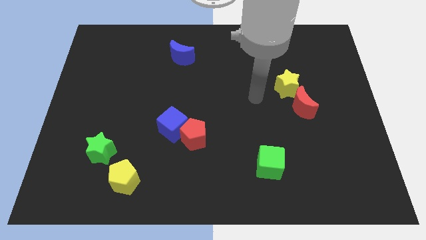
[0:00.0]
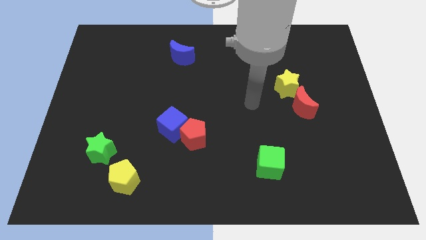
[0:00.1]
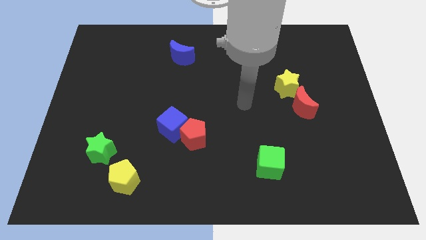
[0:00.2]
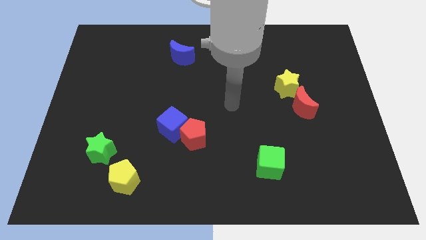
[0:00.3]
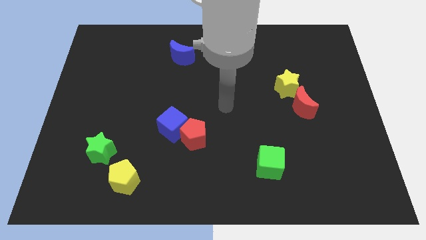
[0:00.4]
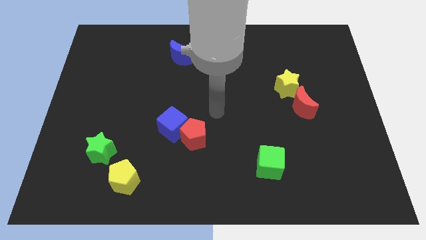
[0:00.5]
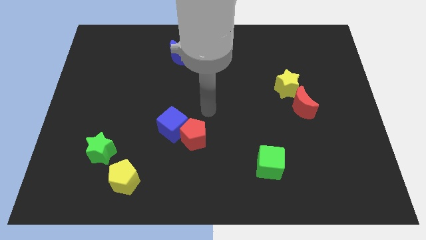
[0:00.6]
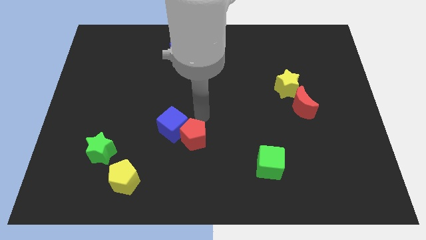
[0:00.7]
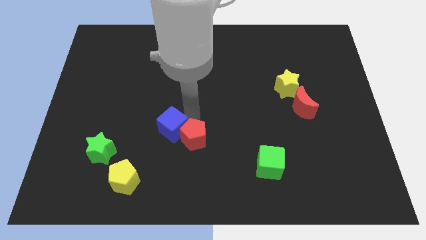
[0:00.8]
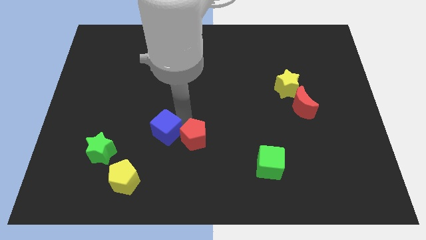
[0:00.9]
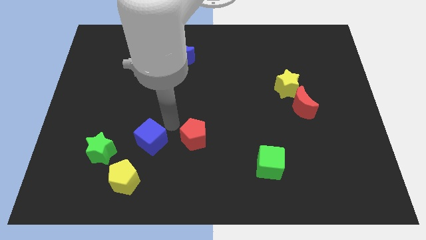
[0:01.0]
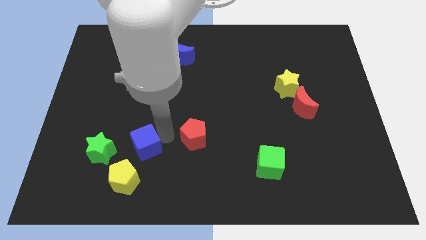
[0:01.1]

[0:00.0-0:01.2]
move the red pentagon away from the blue cube

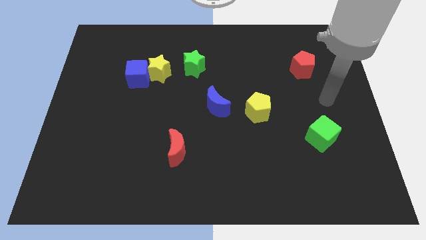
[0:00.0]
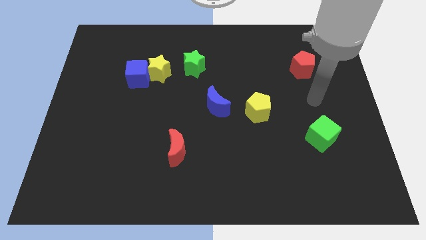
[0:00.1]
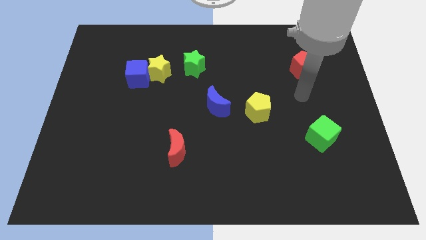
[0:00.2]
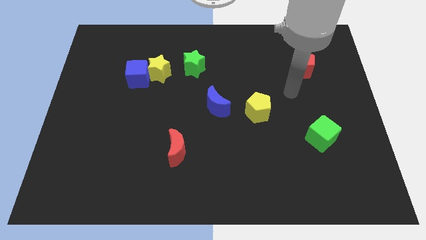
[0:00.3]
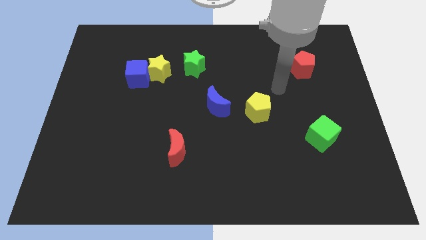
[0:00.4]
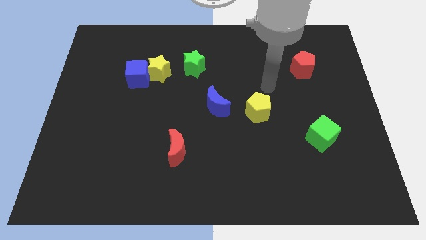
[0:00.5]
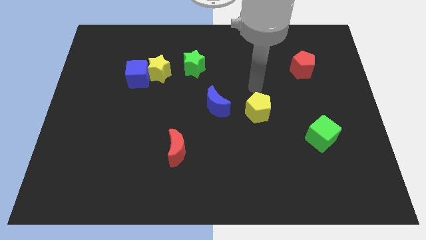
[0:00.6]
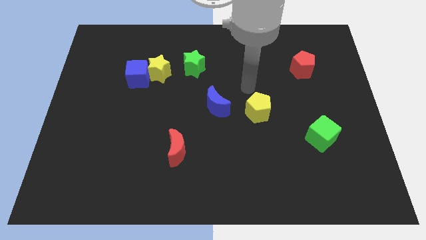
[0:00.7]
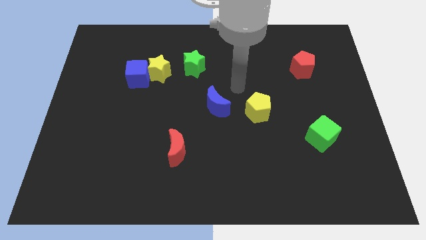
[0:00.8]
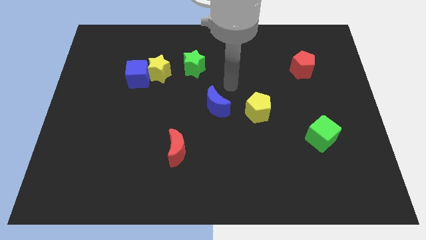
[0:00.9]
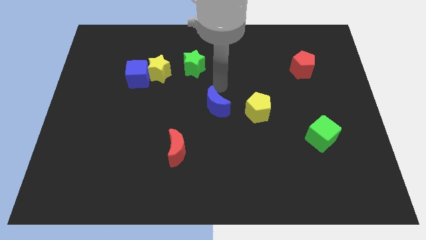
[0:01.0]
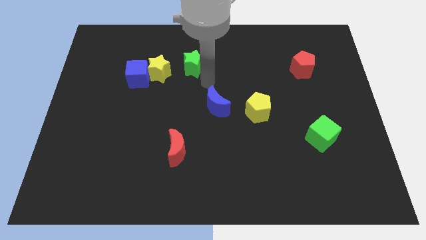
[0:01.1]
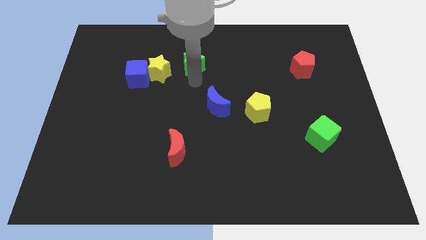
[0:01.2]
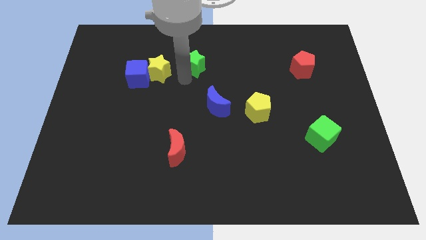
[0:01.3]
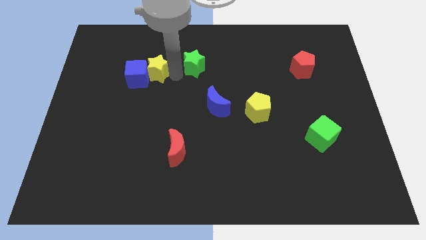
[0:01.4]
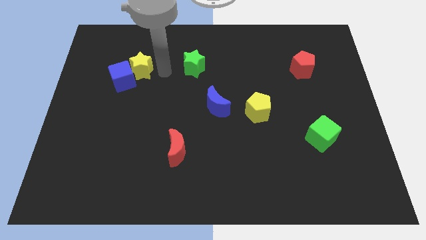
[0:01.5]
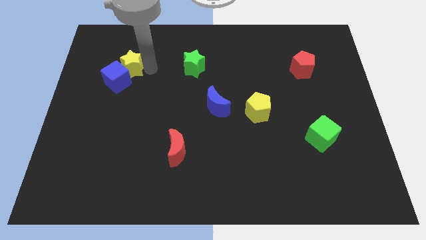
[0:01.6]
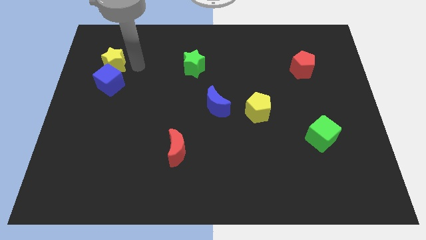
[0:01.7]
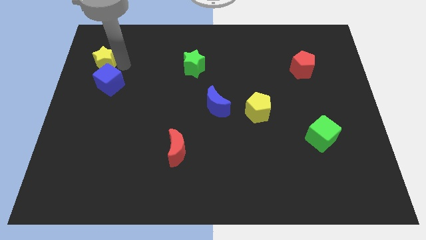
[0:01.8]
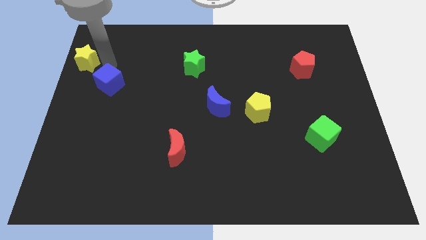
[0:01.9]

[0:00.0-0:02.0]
pull the blue cube apart from the yellow star

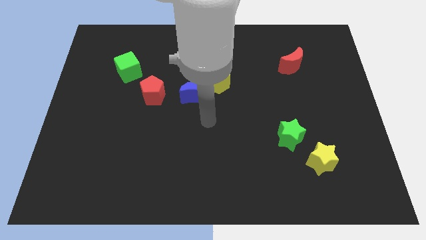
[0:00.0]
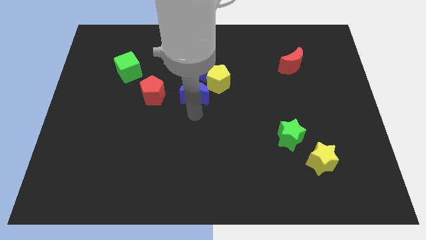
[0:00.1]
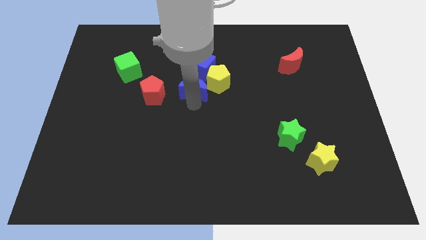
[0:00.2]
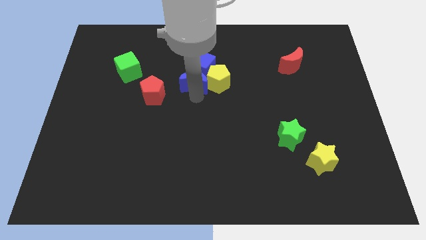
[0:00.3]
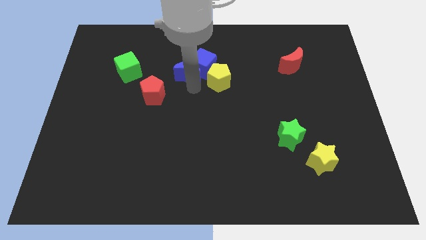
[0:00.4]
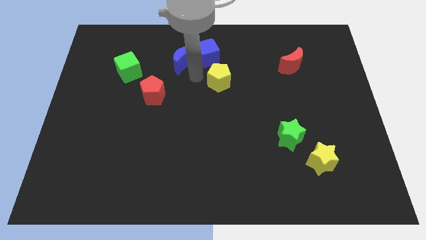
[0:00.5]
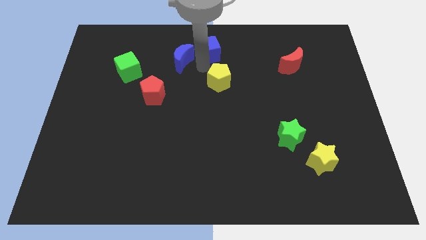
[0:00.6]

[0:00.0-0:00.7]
pull the yellow pentagon apart from the blue cube and blue moon

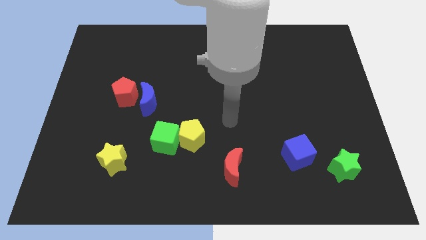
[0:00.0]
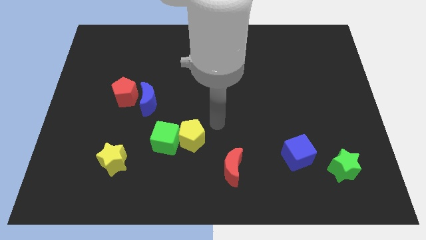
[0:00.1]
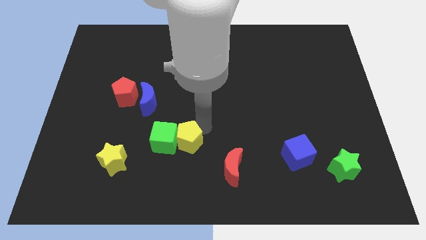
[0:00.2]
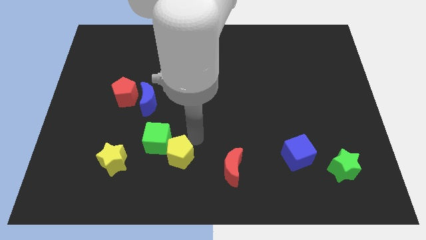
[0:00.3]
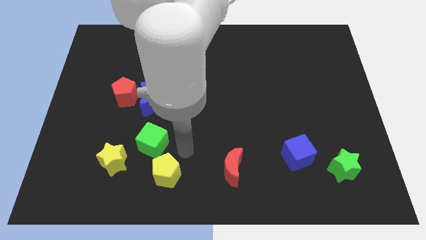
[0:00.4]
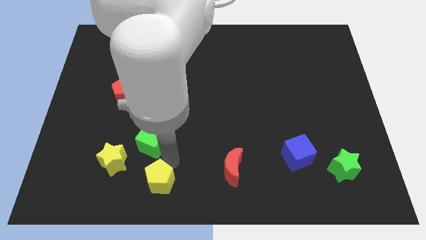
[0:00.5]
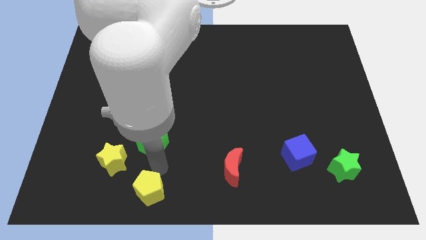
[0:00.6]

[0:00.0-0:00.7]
pull the green cube apart from the yellow pentagon

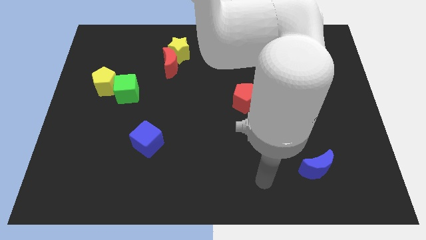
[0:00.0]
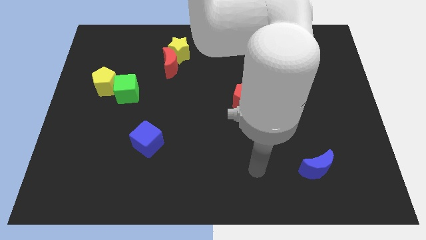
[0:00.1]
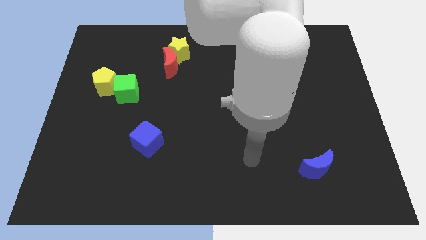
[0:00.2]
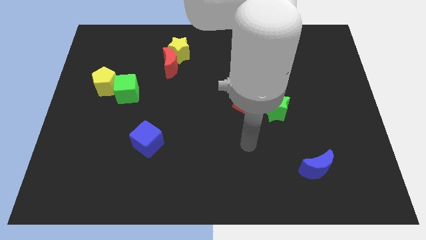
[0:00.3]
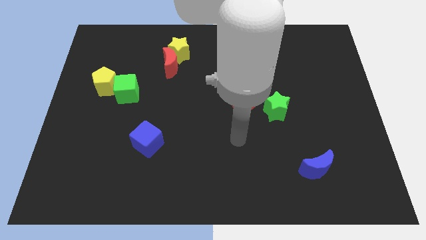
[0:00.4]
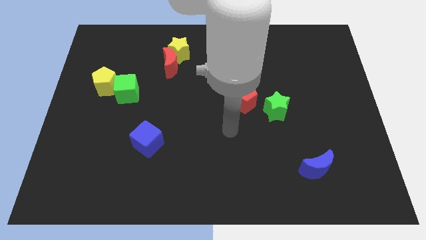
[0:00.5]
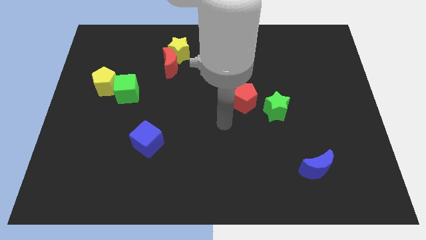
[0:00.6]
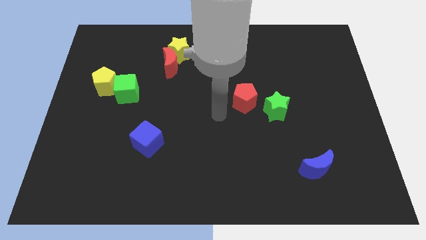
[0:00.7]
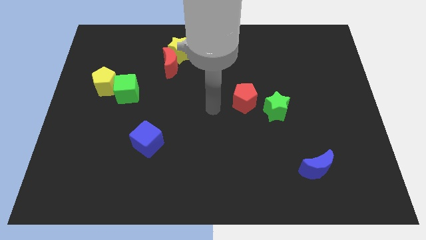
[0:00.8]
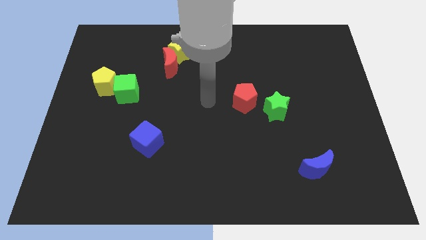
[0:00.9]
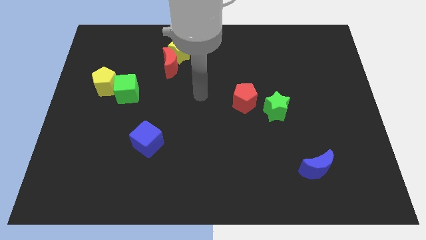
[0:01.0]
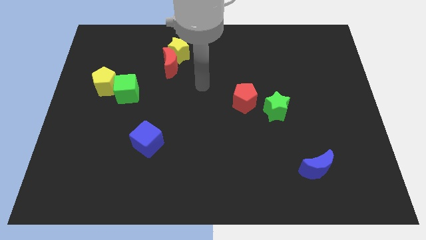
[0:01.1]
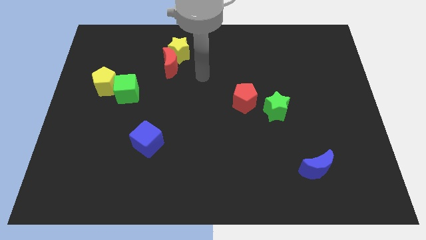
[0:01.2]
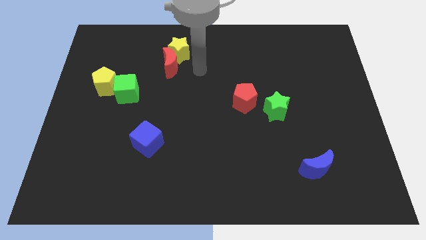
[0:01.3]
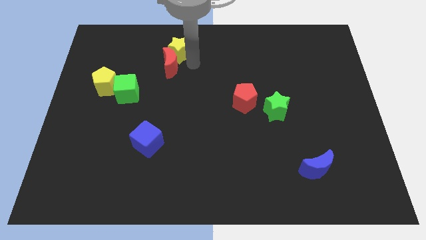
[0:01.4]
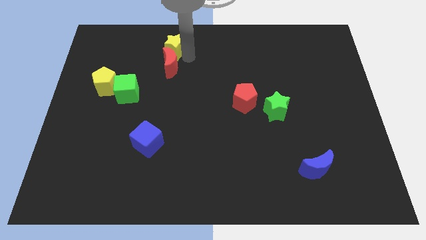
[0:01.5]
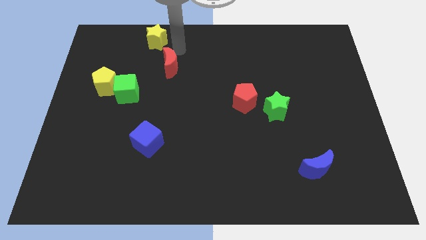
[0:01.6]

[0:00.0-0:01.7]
separate the red moon from the yellow star

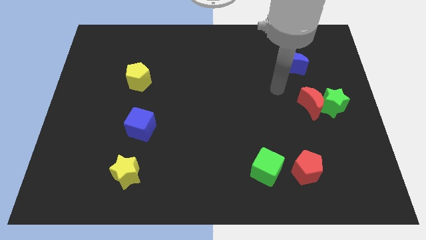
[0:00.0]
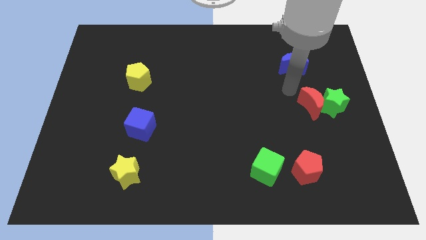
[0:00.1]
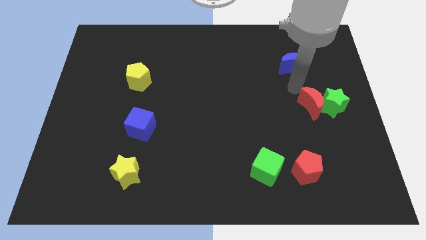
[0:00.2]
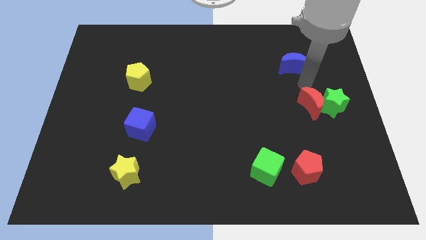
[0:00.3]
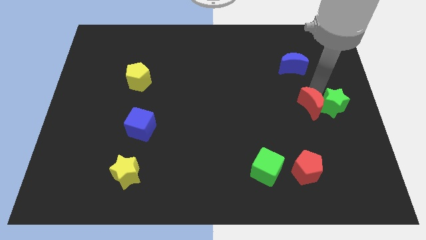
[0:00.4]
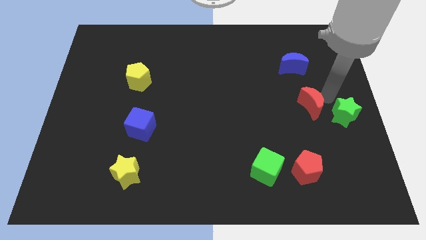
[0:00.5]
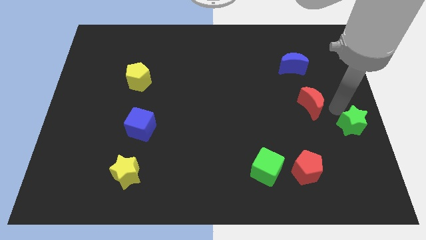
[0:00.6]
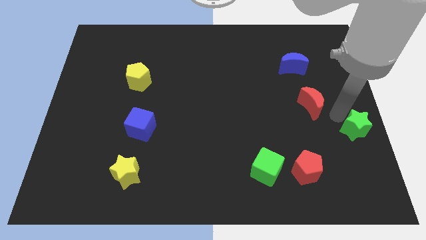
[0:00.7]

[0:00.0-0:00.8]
pull the red moon apart from the green star

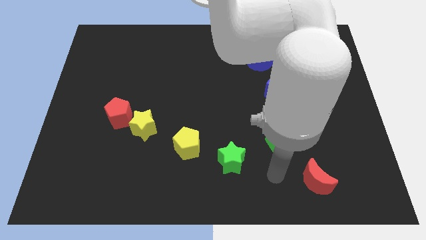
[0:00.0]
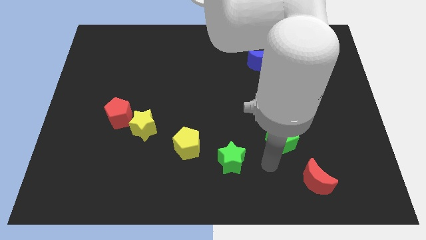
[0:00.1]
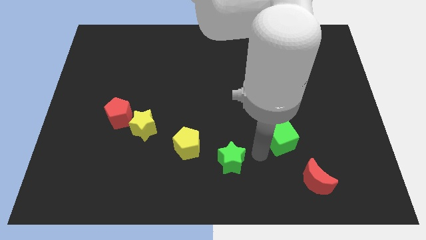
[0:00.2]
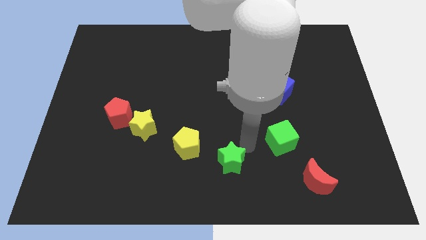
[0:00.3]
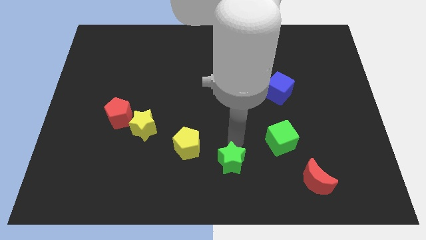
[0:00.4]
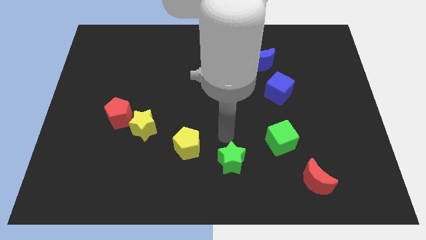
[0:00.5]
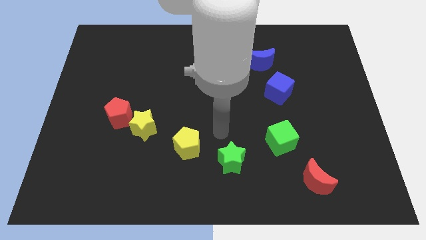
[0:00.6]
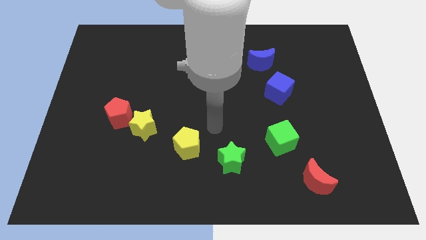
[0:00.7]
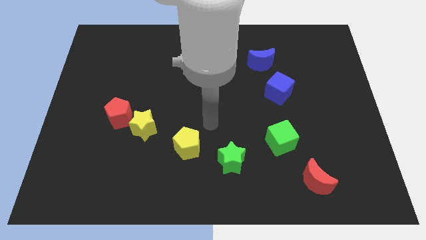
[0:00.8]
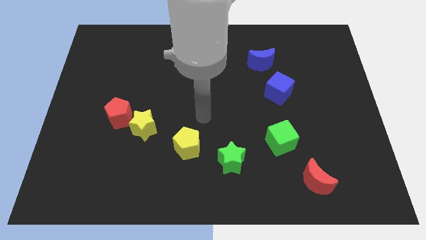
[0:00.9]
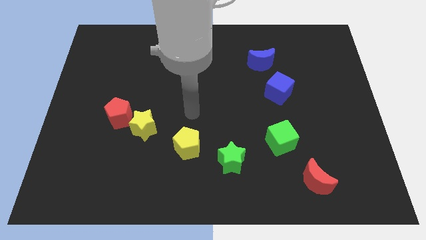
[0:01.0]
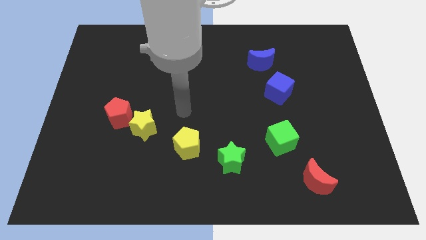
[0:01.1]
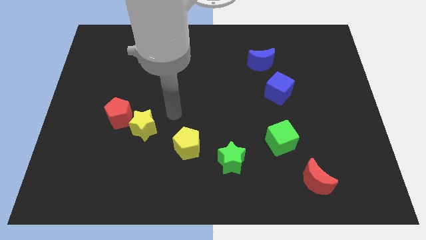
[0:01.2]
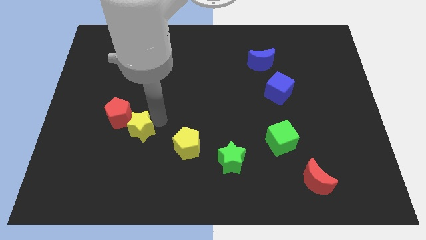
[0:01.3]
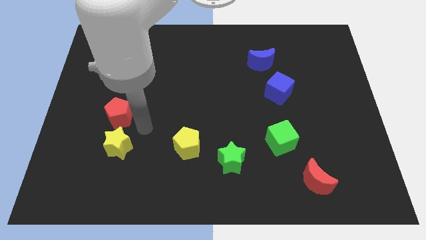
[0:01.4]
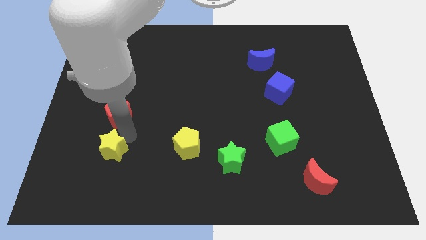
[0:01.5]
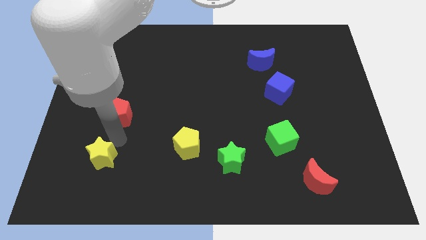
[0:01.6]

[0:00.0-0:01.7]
move the red pentagon away from the yellow star

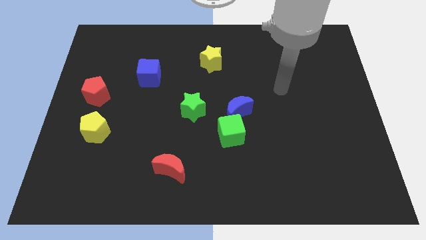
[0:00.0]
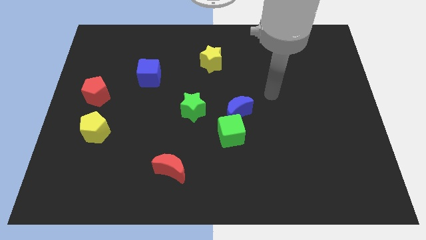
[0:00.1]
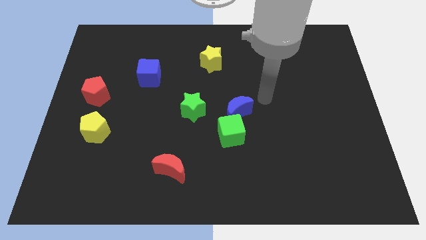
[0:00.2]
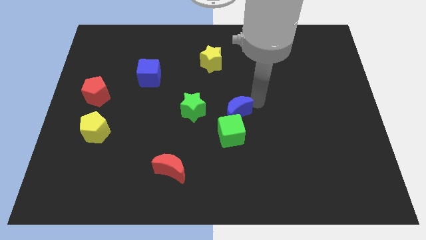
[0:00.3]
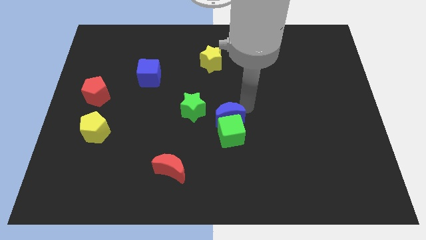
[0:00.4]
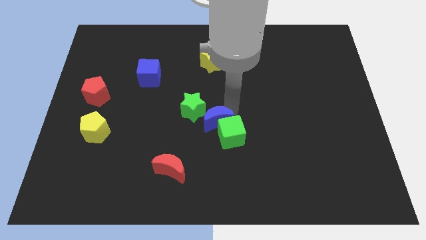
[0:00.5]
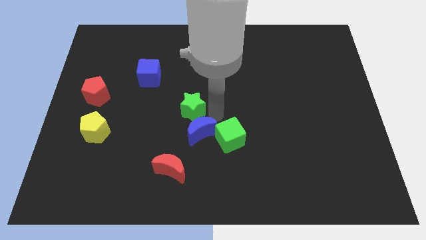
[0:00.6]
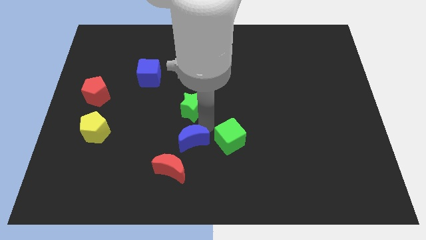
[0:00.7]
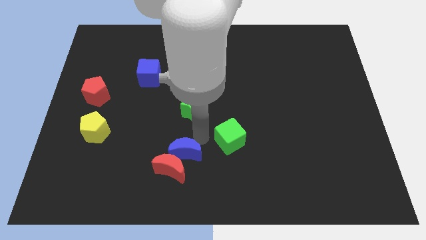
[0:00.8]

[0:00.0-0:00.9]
separate the green cube from the blue moon
